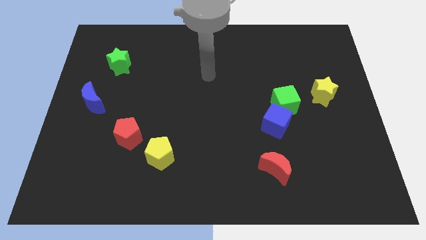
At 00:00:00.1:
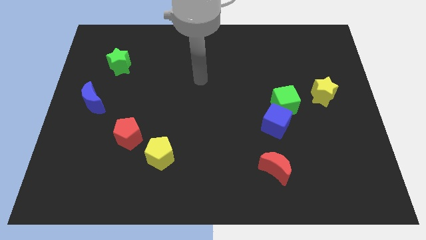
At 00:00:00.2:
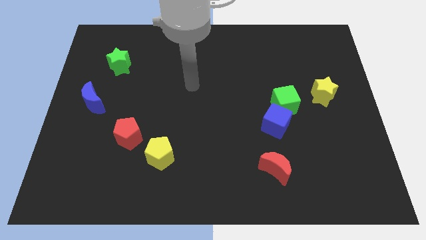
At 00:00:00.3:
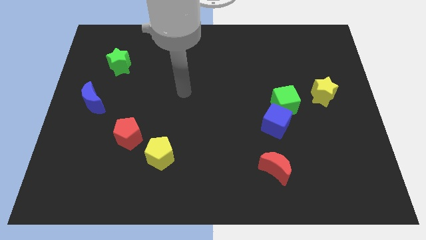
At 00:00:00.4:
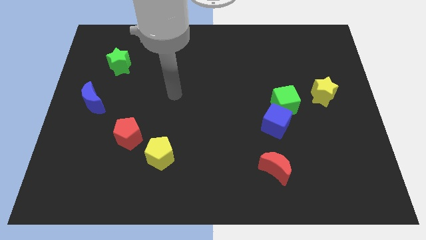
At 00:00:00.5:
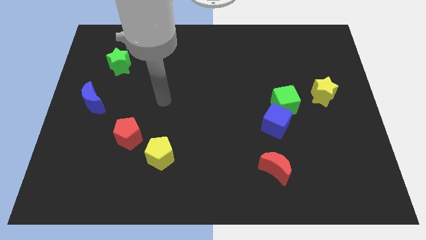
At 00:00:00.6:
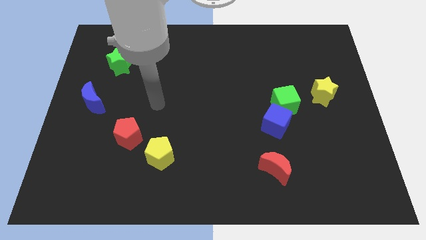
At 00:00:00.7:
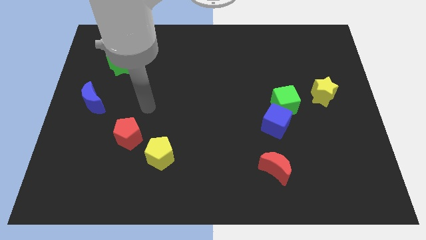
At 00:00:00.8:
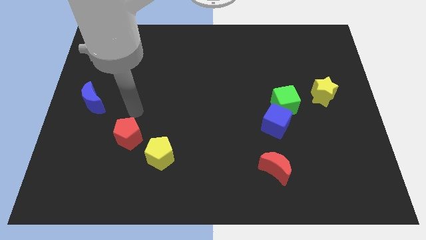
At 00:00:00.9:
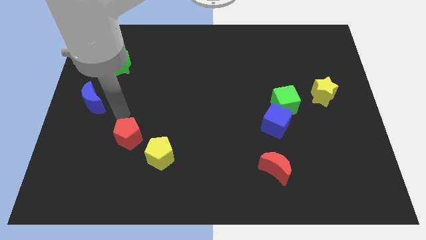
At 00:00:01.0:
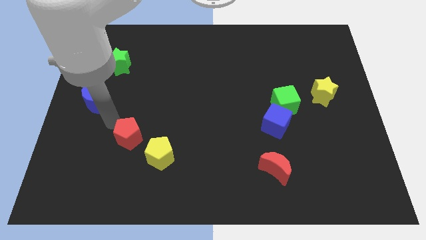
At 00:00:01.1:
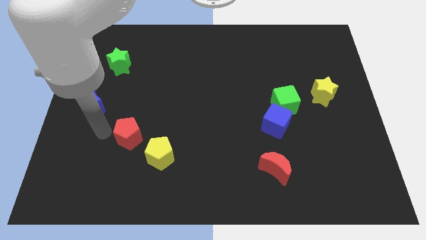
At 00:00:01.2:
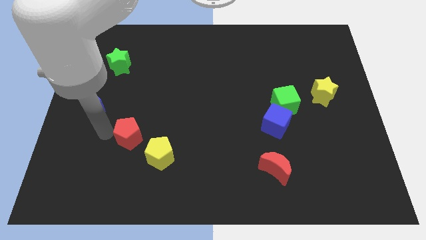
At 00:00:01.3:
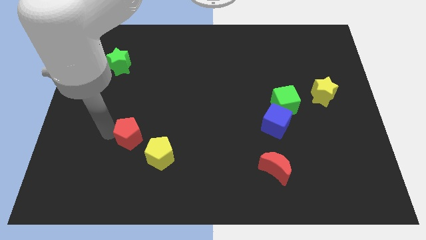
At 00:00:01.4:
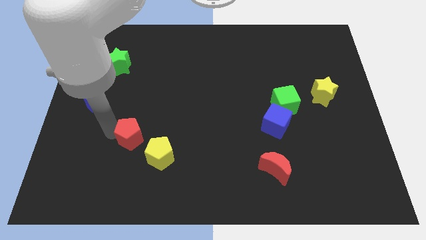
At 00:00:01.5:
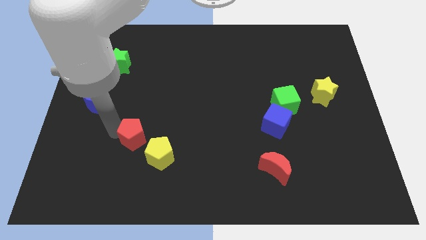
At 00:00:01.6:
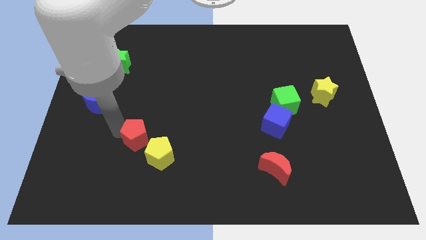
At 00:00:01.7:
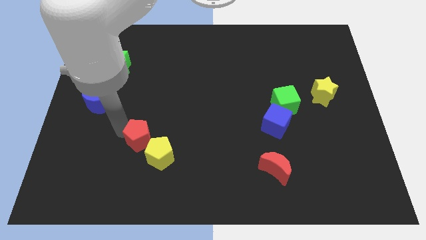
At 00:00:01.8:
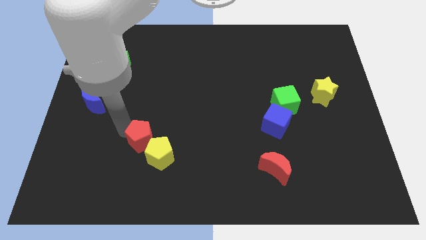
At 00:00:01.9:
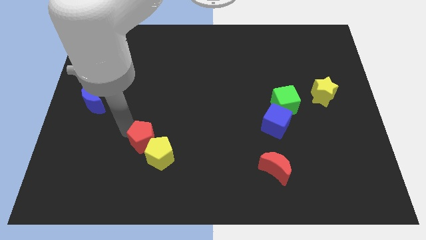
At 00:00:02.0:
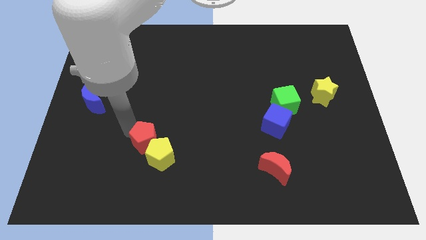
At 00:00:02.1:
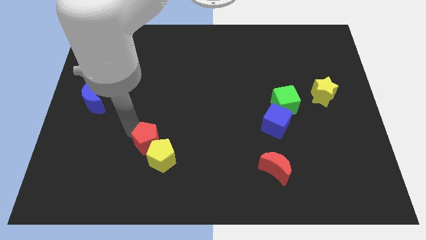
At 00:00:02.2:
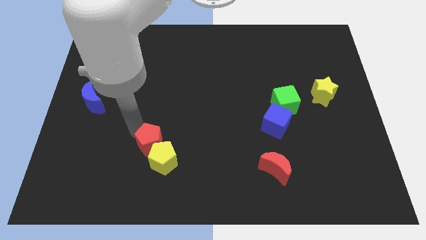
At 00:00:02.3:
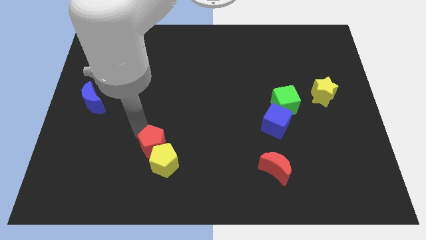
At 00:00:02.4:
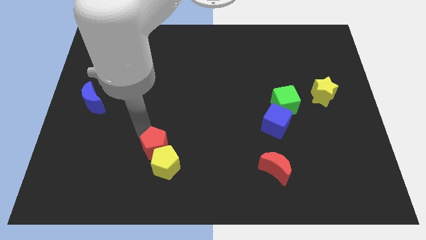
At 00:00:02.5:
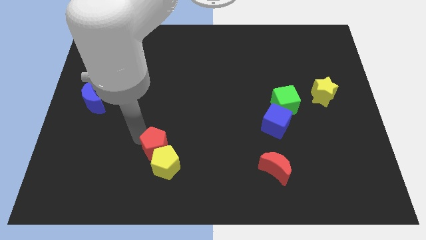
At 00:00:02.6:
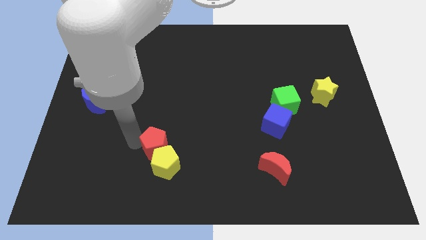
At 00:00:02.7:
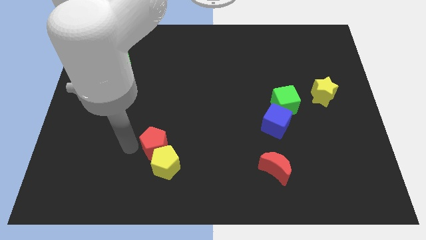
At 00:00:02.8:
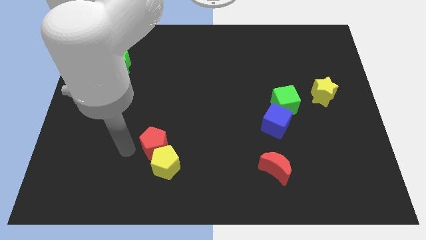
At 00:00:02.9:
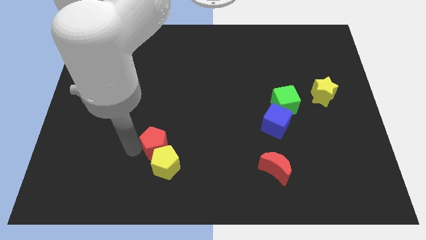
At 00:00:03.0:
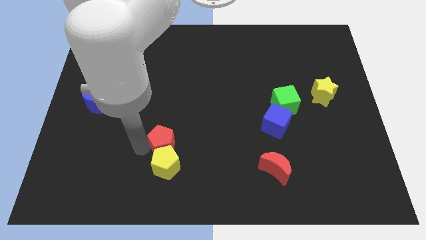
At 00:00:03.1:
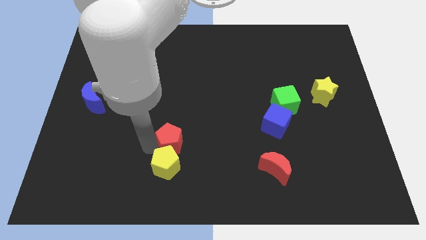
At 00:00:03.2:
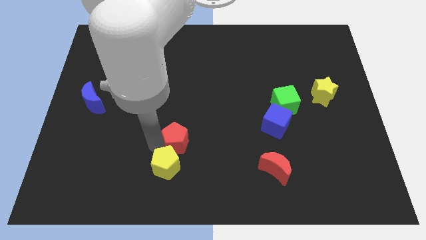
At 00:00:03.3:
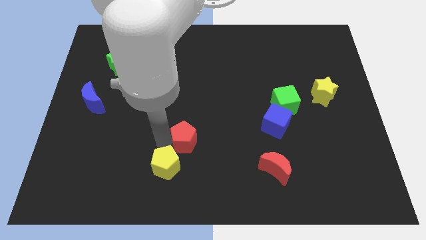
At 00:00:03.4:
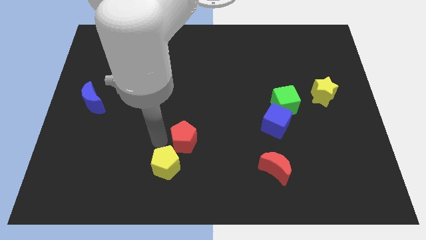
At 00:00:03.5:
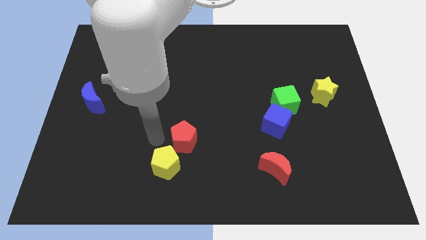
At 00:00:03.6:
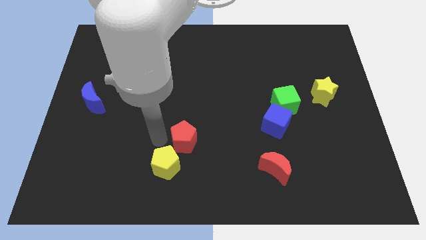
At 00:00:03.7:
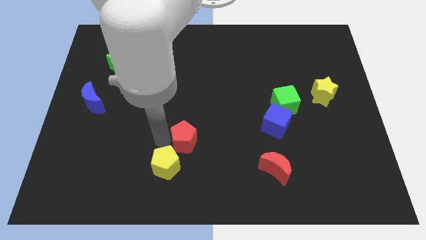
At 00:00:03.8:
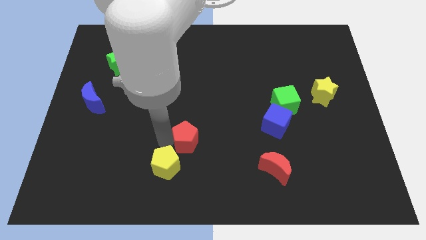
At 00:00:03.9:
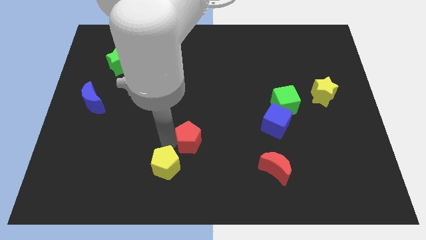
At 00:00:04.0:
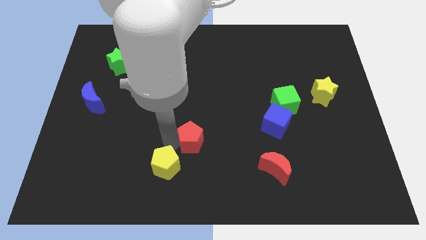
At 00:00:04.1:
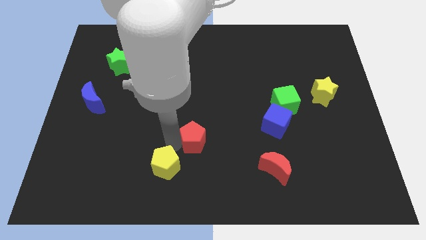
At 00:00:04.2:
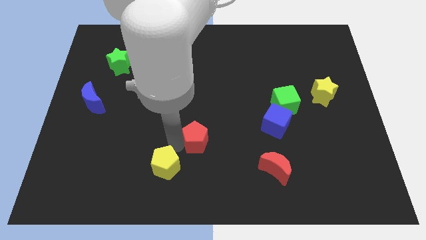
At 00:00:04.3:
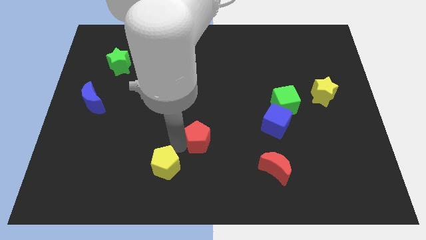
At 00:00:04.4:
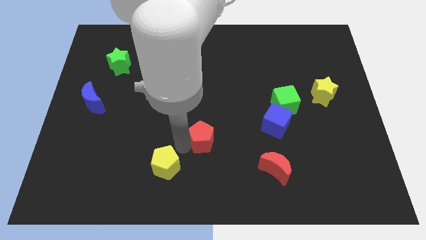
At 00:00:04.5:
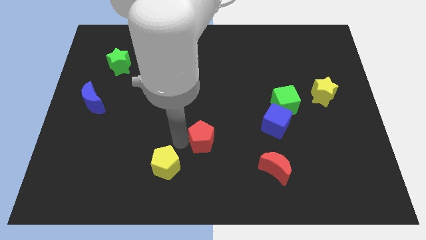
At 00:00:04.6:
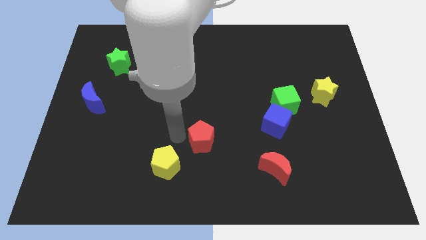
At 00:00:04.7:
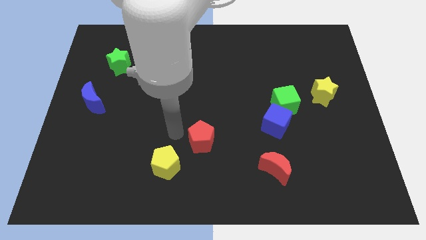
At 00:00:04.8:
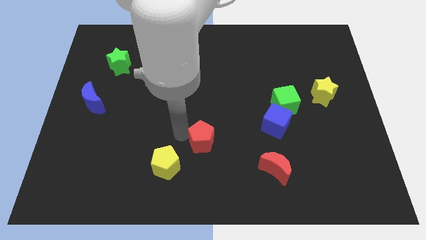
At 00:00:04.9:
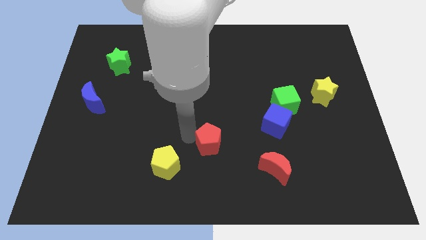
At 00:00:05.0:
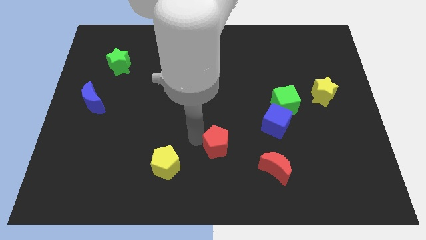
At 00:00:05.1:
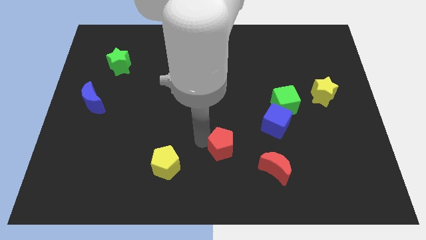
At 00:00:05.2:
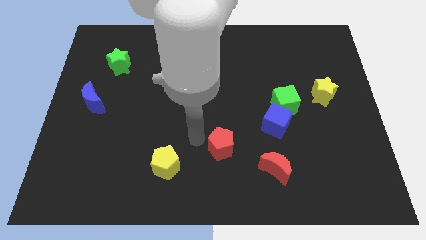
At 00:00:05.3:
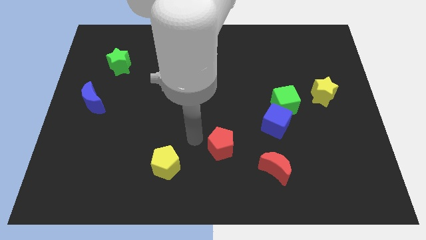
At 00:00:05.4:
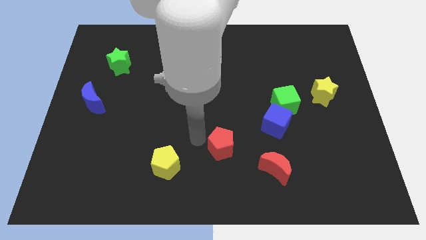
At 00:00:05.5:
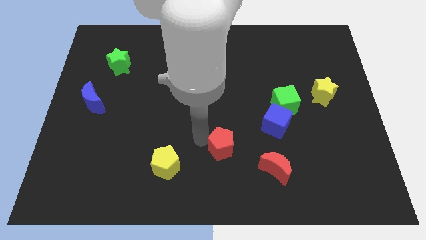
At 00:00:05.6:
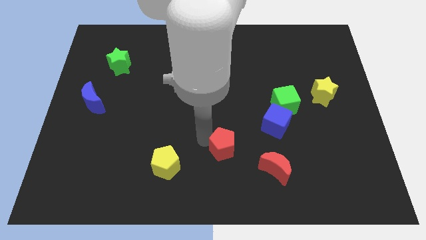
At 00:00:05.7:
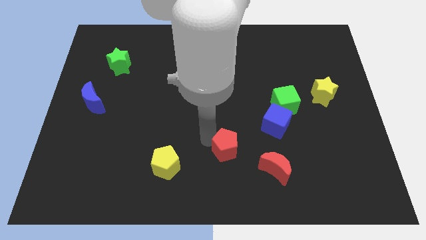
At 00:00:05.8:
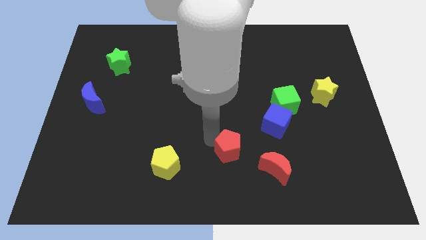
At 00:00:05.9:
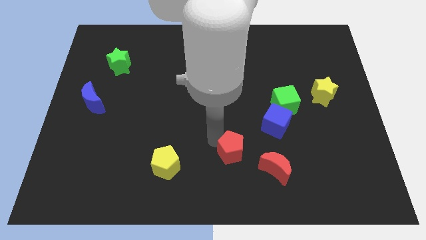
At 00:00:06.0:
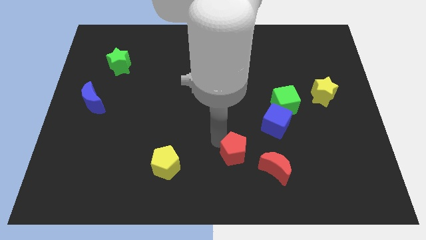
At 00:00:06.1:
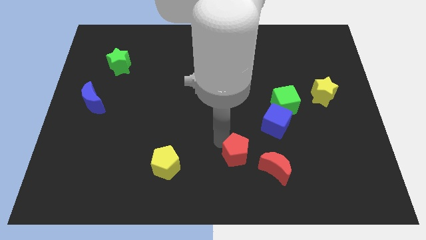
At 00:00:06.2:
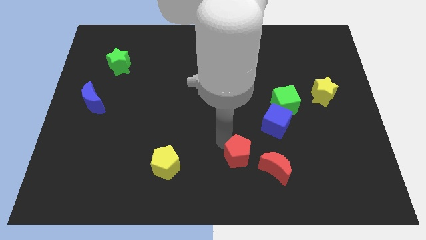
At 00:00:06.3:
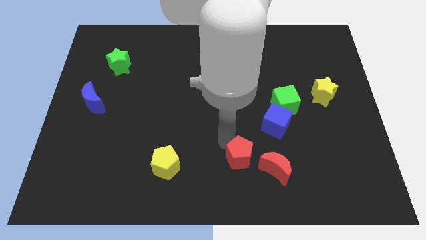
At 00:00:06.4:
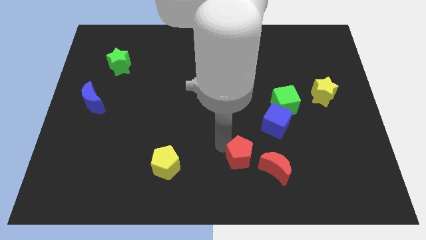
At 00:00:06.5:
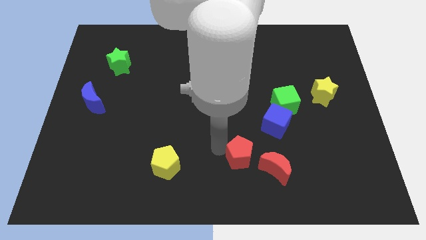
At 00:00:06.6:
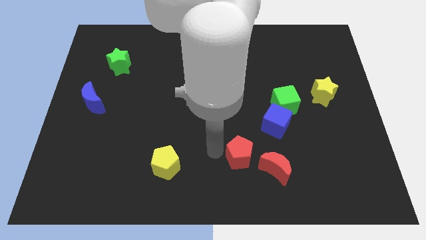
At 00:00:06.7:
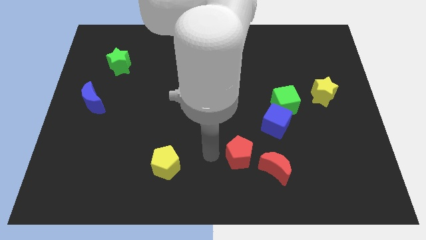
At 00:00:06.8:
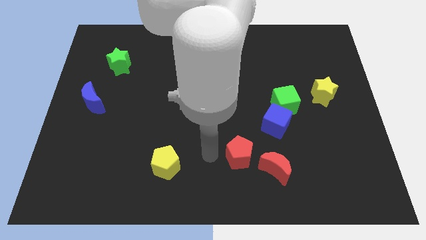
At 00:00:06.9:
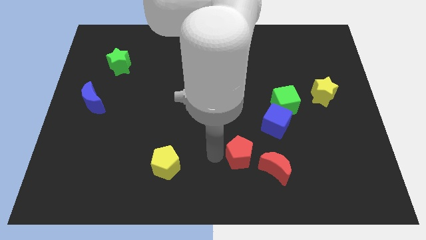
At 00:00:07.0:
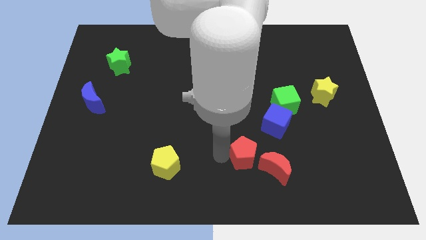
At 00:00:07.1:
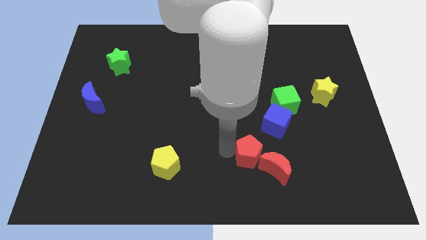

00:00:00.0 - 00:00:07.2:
move the red pentagon next to the red moon

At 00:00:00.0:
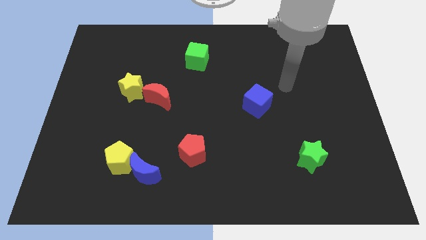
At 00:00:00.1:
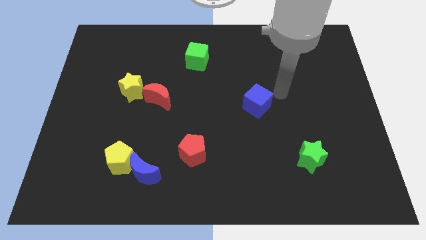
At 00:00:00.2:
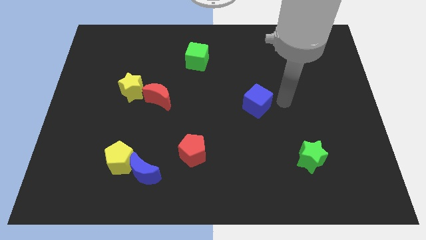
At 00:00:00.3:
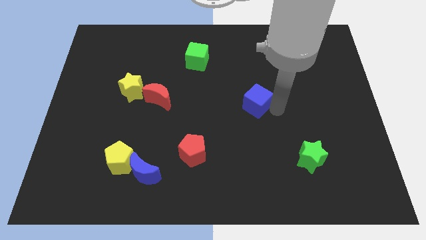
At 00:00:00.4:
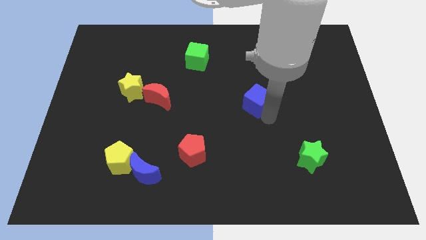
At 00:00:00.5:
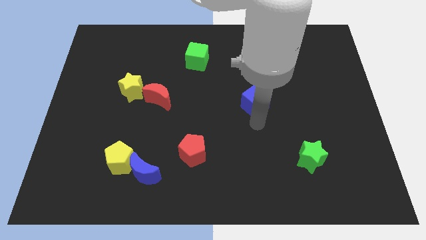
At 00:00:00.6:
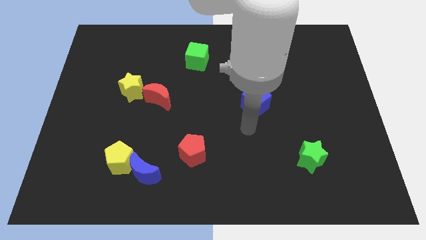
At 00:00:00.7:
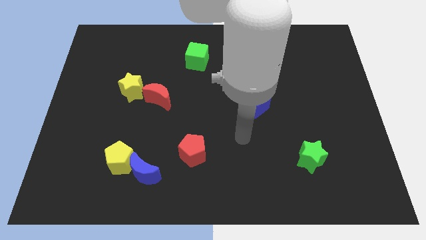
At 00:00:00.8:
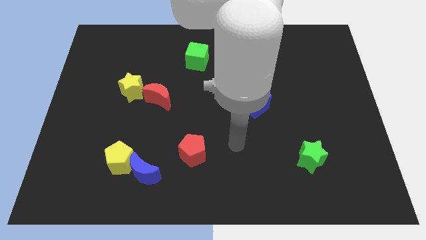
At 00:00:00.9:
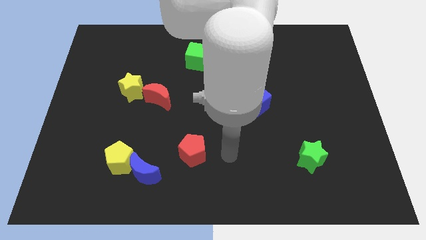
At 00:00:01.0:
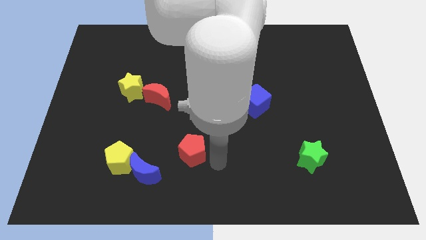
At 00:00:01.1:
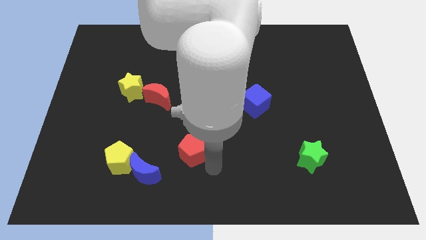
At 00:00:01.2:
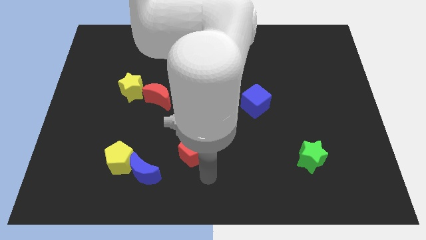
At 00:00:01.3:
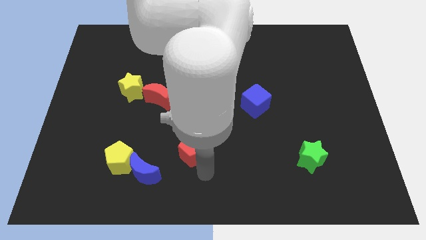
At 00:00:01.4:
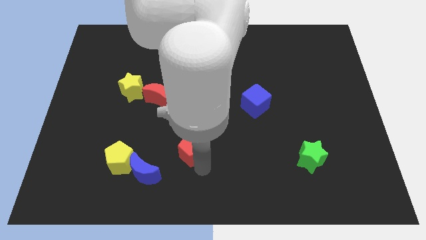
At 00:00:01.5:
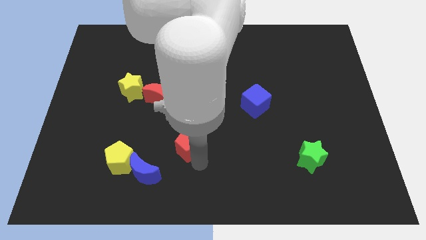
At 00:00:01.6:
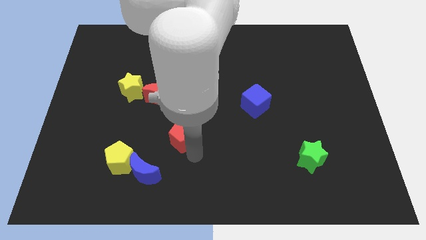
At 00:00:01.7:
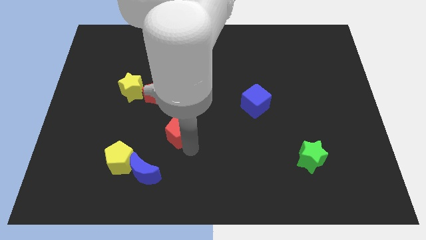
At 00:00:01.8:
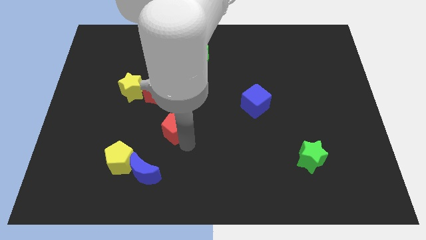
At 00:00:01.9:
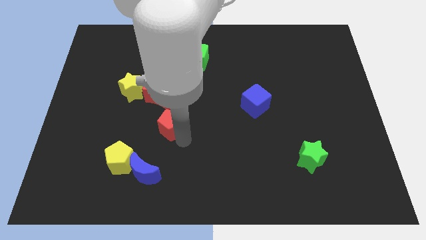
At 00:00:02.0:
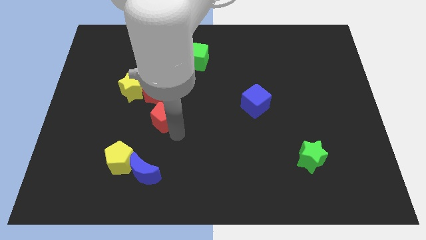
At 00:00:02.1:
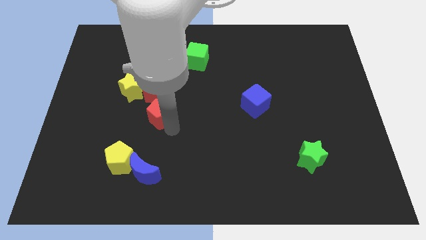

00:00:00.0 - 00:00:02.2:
move the red pentagon towards the red moon
